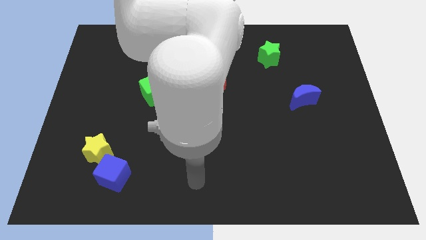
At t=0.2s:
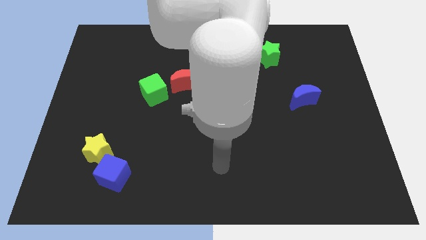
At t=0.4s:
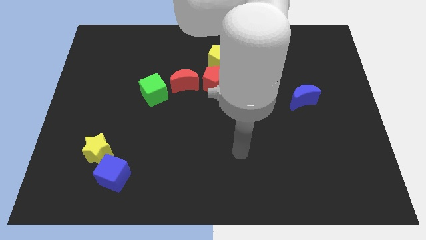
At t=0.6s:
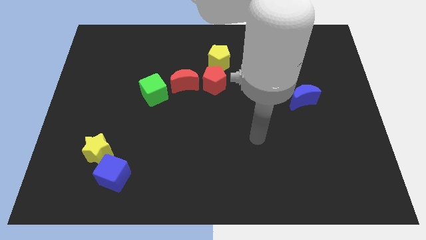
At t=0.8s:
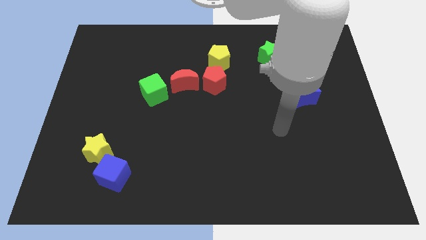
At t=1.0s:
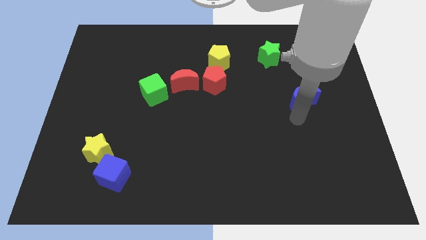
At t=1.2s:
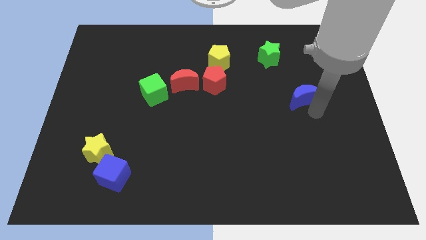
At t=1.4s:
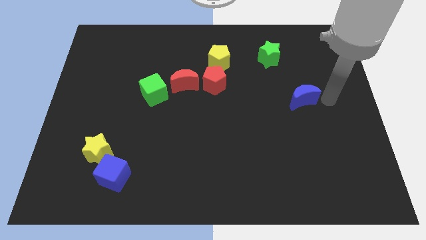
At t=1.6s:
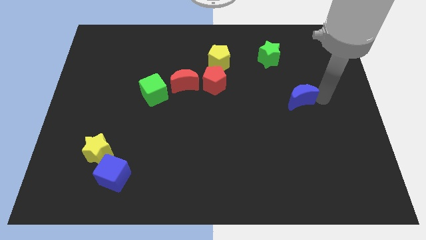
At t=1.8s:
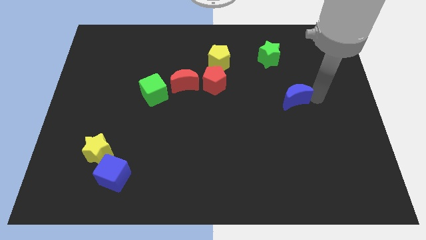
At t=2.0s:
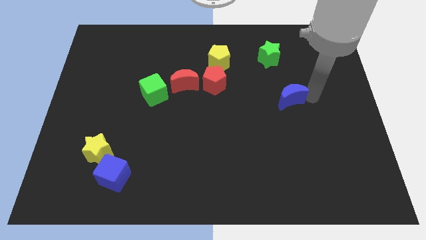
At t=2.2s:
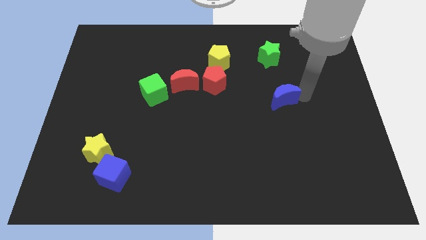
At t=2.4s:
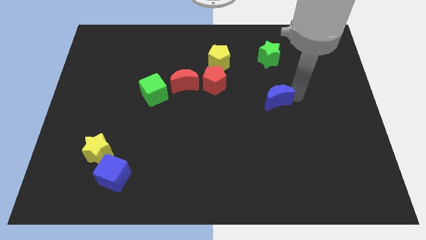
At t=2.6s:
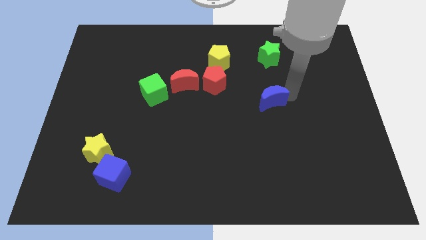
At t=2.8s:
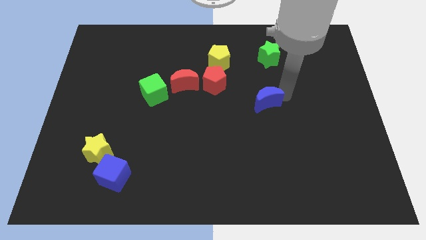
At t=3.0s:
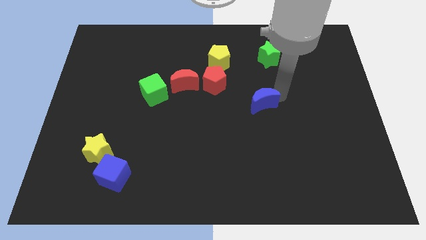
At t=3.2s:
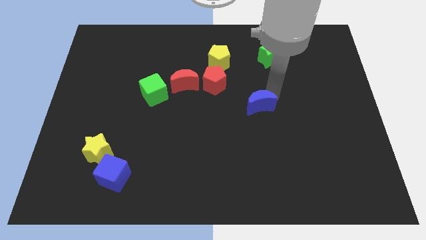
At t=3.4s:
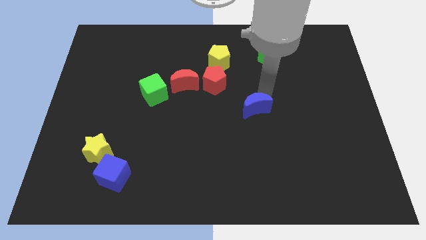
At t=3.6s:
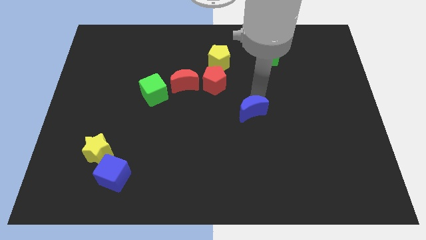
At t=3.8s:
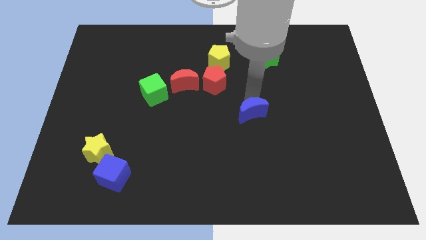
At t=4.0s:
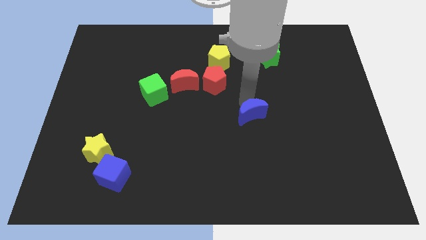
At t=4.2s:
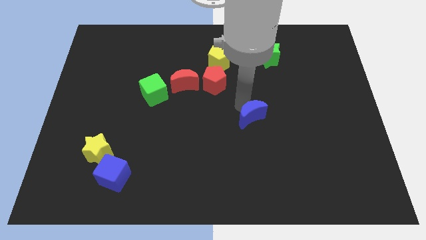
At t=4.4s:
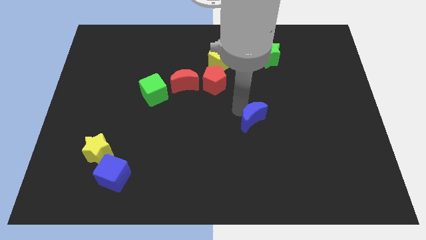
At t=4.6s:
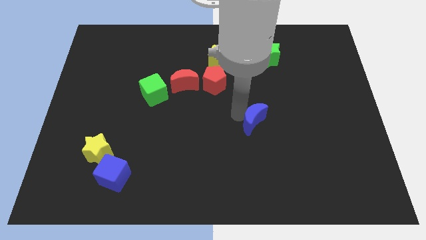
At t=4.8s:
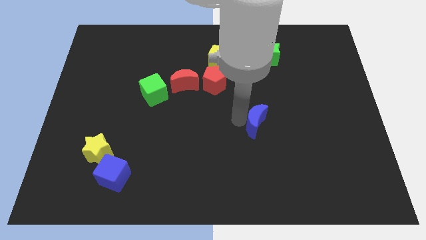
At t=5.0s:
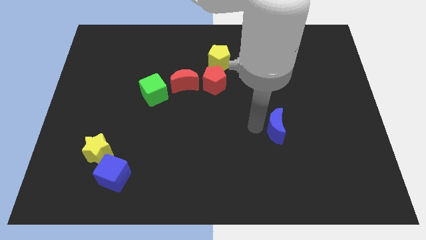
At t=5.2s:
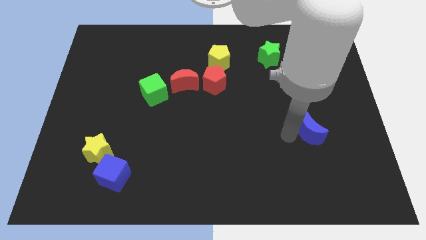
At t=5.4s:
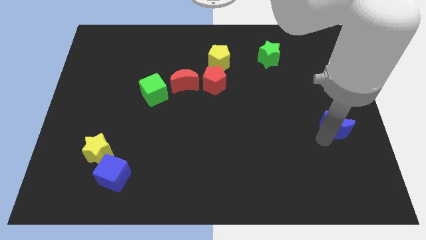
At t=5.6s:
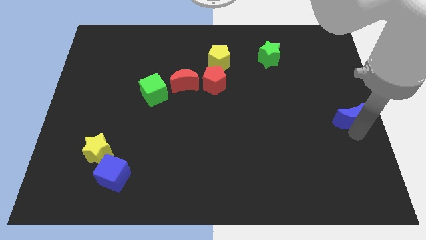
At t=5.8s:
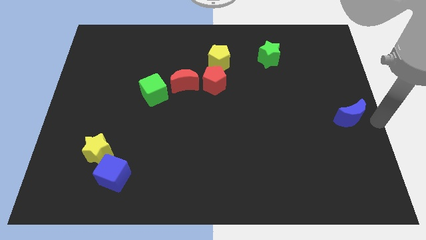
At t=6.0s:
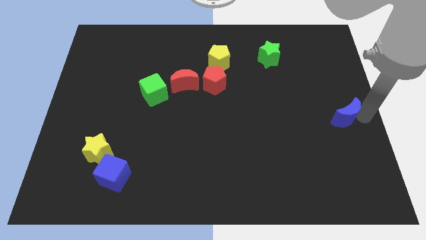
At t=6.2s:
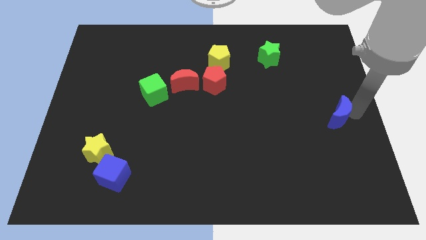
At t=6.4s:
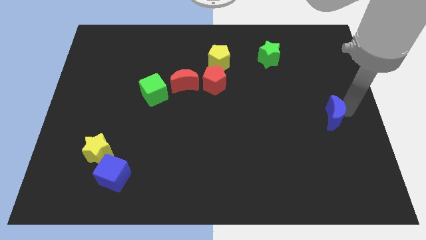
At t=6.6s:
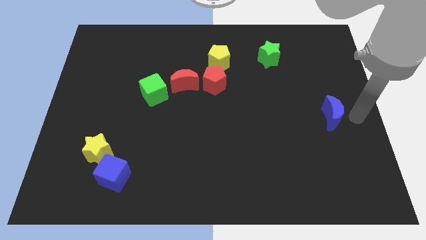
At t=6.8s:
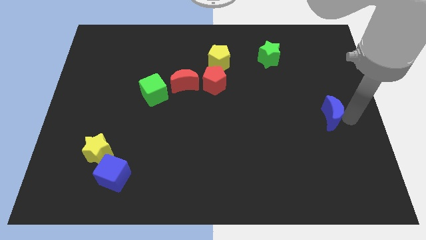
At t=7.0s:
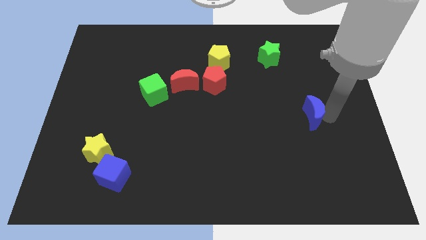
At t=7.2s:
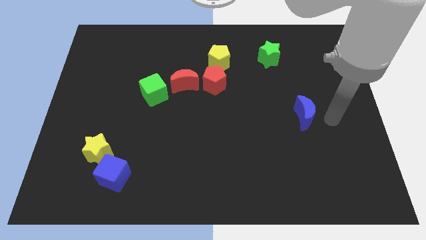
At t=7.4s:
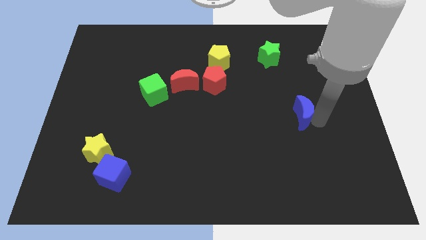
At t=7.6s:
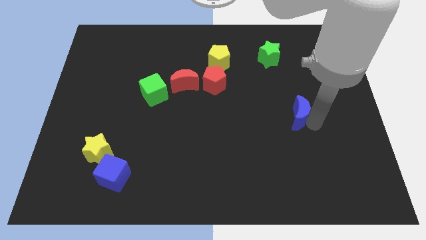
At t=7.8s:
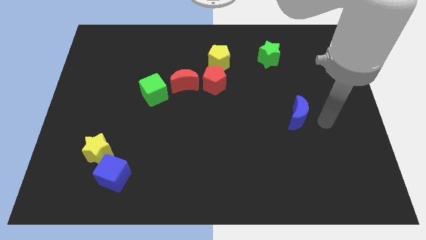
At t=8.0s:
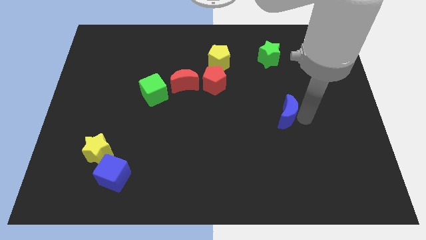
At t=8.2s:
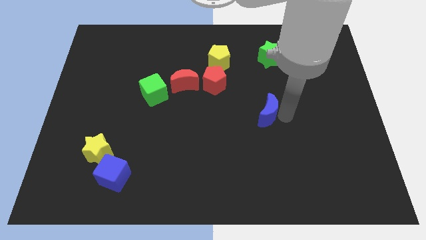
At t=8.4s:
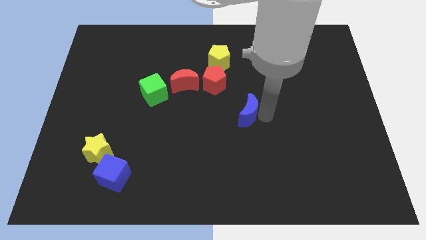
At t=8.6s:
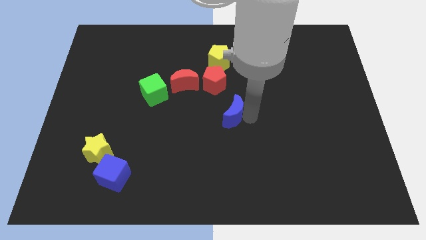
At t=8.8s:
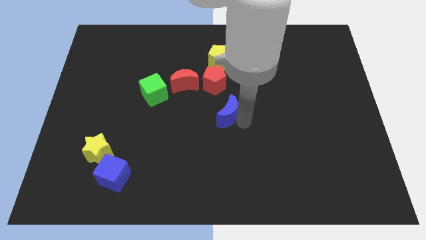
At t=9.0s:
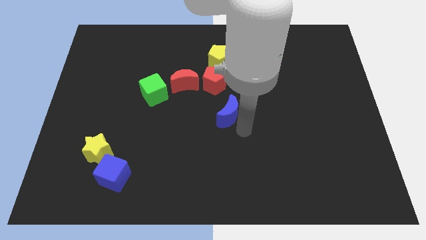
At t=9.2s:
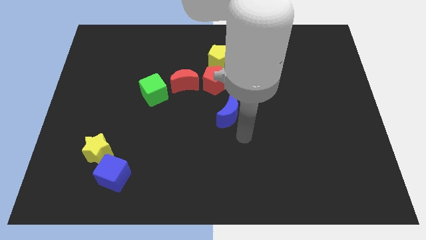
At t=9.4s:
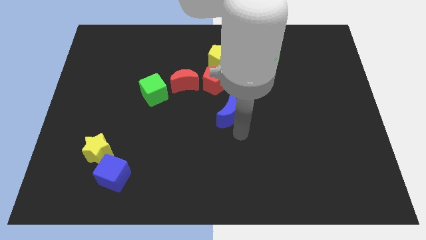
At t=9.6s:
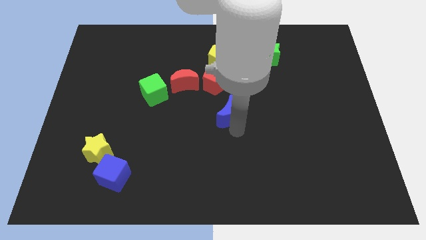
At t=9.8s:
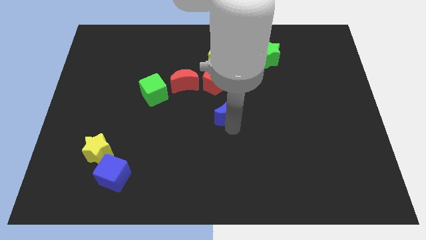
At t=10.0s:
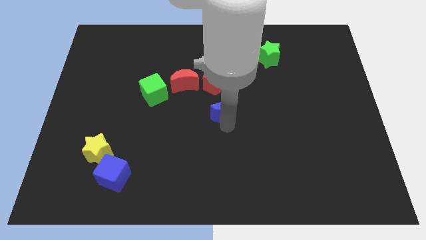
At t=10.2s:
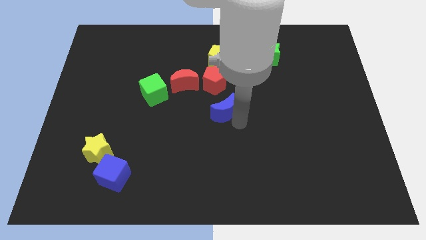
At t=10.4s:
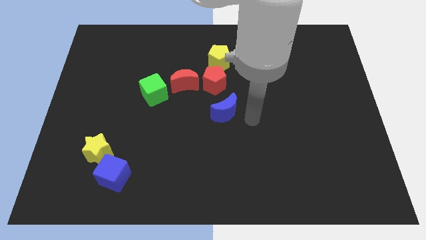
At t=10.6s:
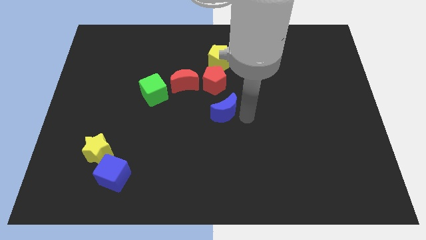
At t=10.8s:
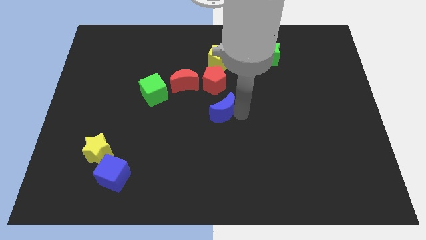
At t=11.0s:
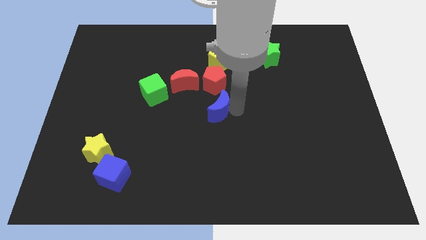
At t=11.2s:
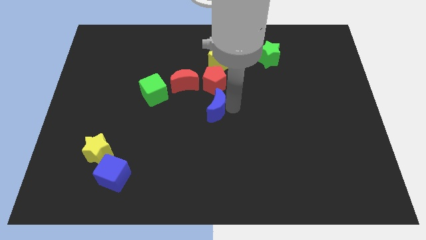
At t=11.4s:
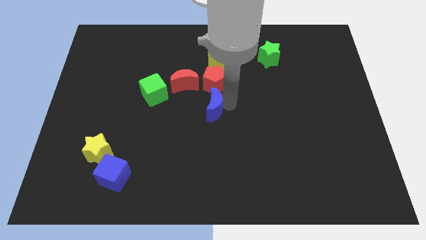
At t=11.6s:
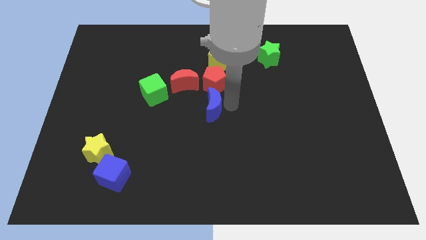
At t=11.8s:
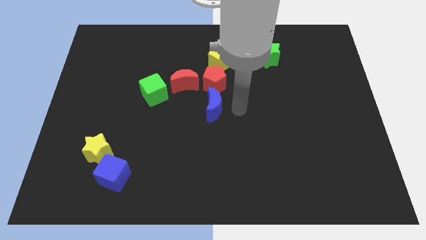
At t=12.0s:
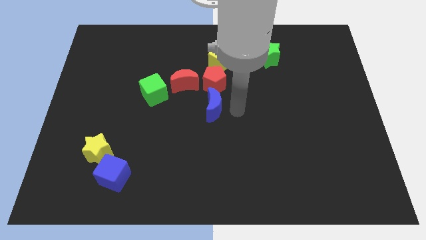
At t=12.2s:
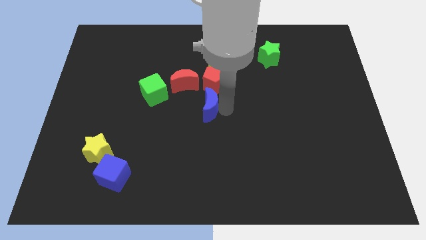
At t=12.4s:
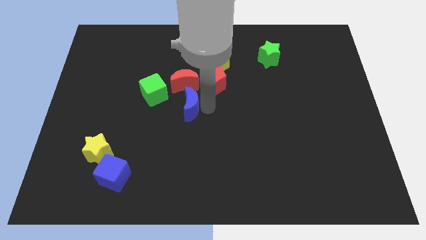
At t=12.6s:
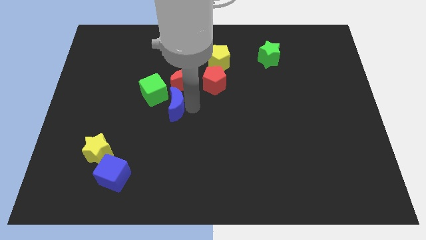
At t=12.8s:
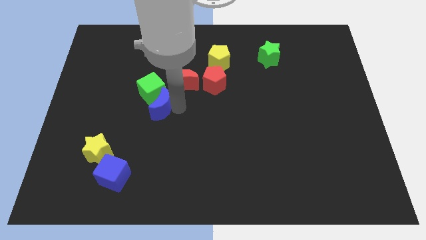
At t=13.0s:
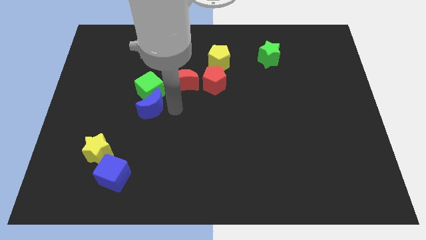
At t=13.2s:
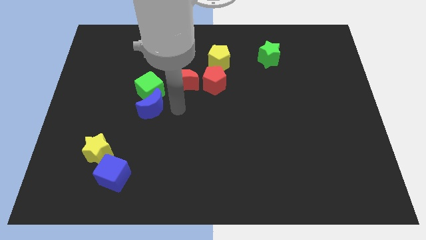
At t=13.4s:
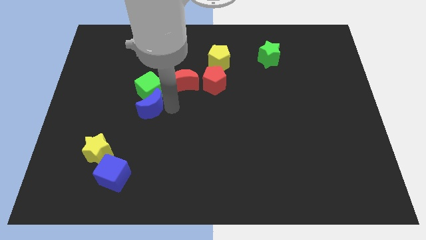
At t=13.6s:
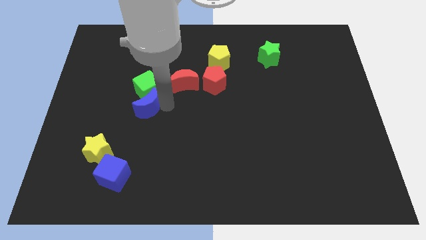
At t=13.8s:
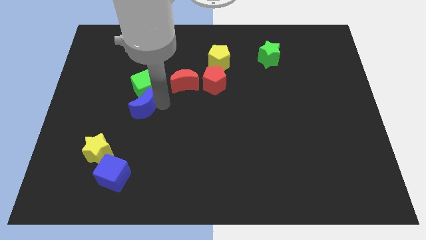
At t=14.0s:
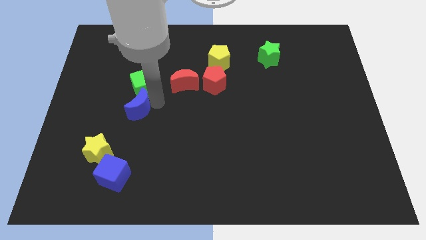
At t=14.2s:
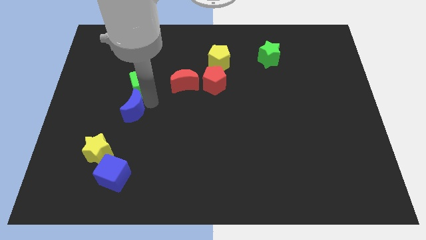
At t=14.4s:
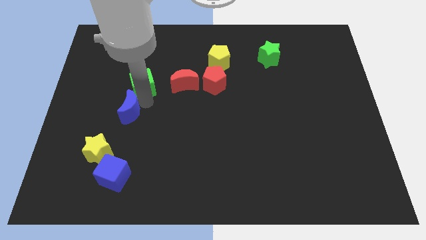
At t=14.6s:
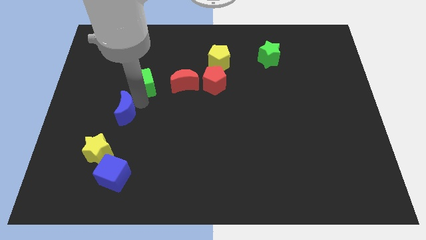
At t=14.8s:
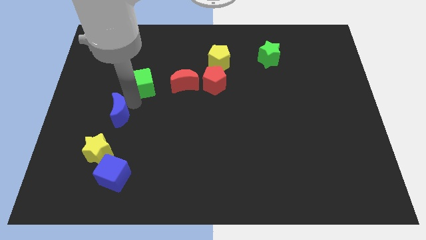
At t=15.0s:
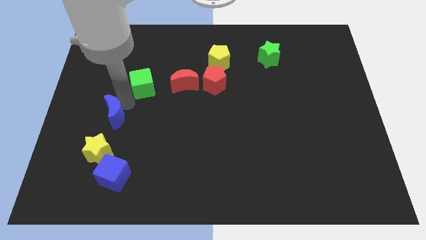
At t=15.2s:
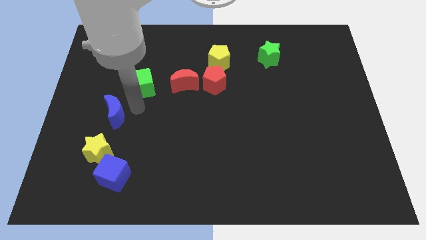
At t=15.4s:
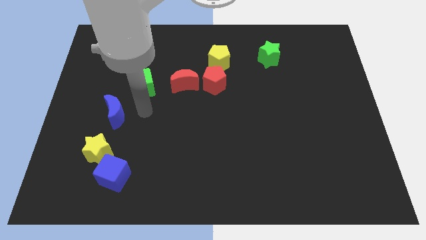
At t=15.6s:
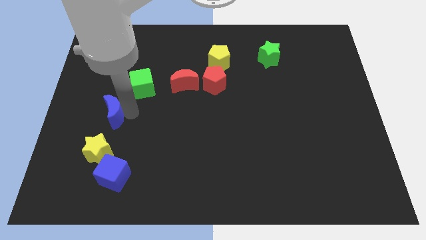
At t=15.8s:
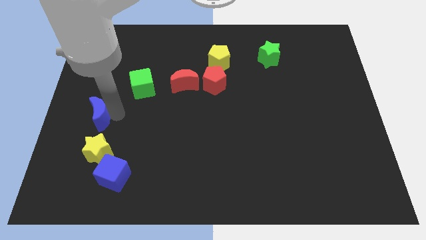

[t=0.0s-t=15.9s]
slide the blue moon to the left side
